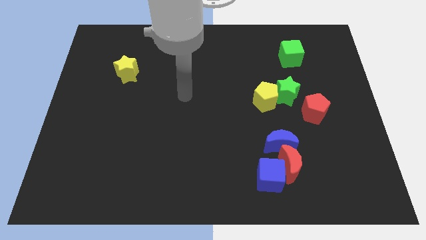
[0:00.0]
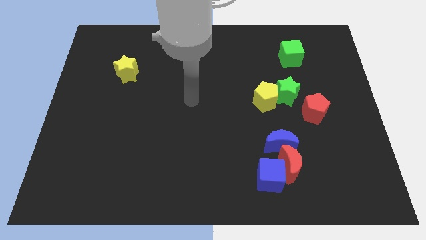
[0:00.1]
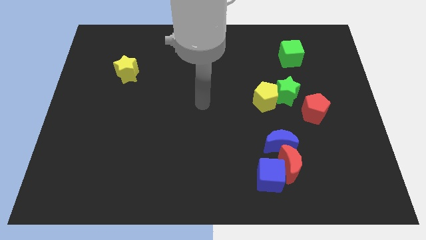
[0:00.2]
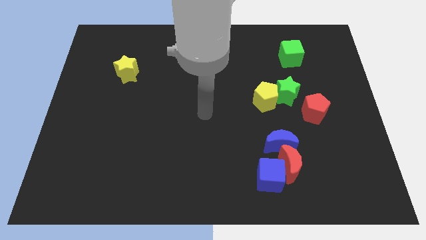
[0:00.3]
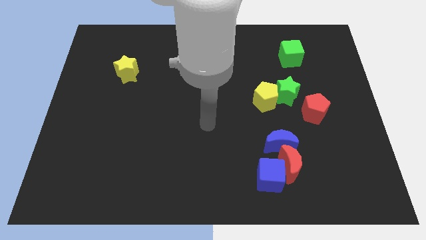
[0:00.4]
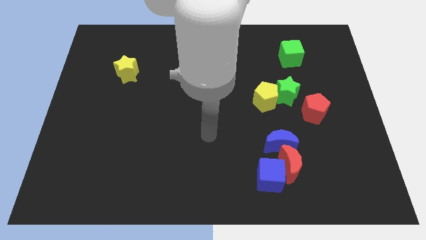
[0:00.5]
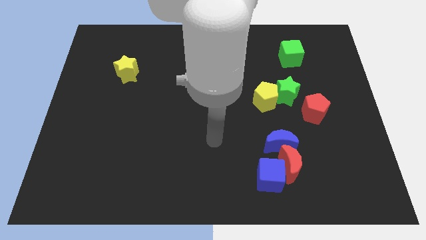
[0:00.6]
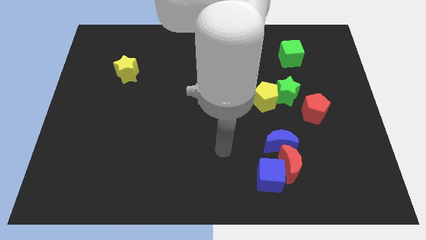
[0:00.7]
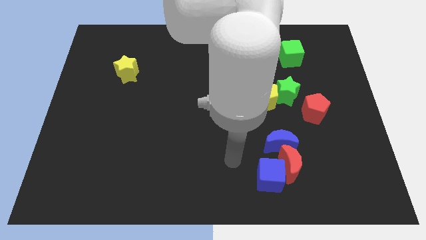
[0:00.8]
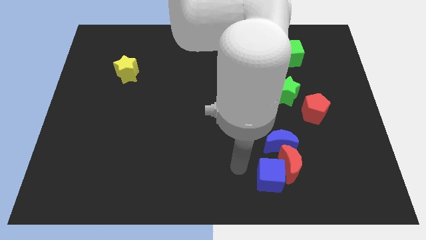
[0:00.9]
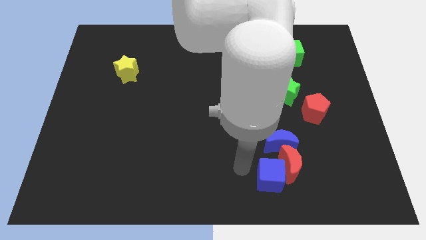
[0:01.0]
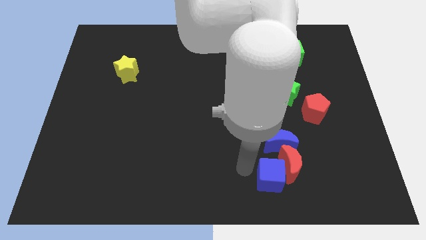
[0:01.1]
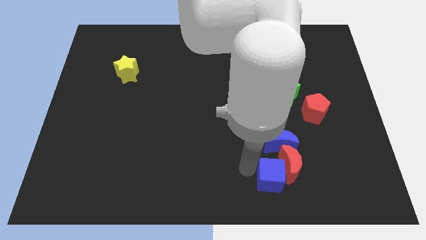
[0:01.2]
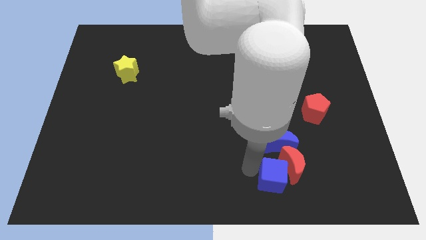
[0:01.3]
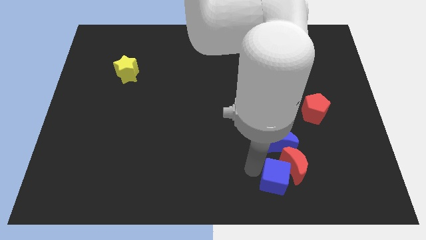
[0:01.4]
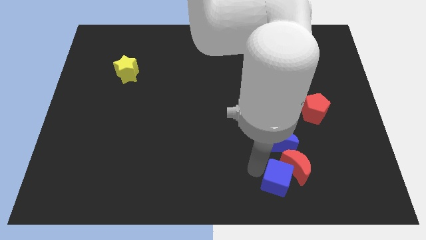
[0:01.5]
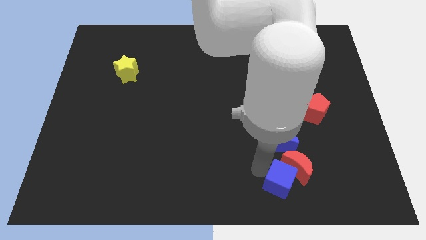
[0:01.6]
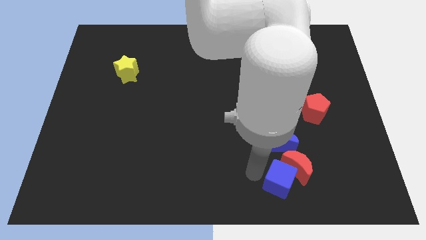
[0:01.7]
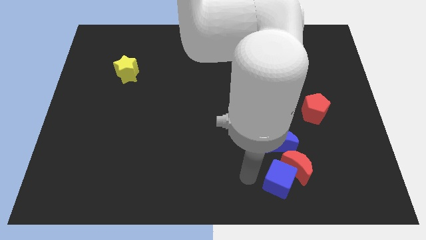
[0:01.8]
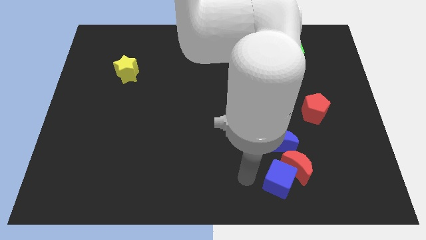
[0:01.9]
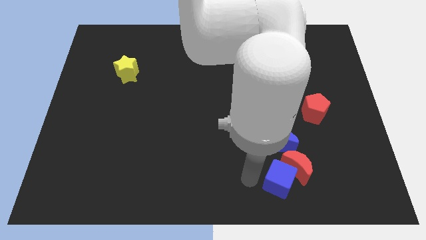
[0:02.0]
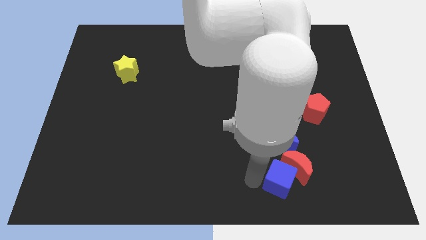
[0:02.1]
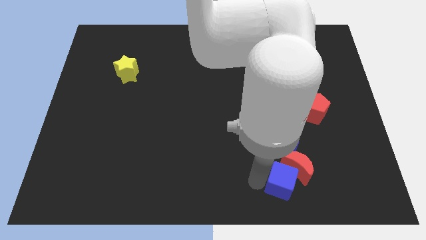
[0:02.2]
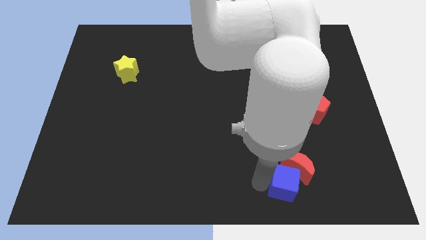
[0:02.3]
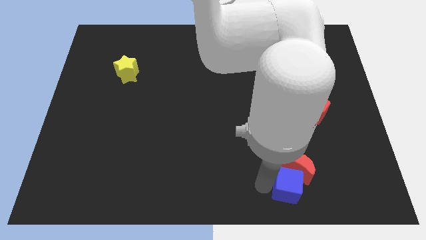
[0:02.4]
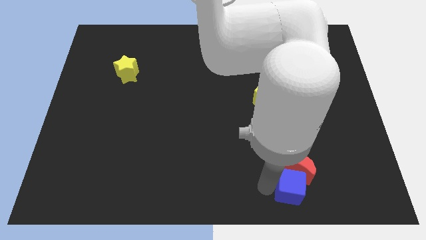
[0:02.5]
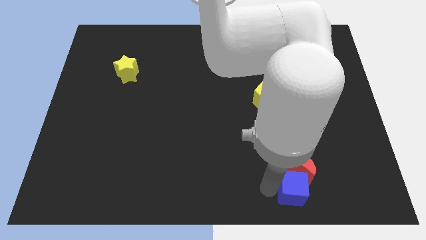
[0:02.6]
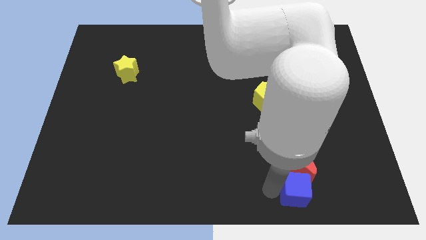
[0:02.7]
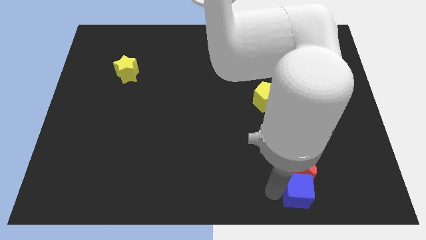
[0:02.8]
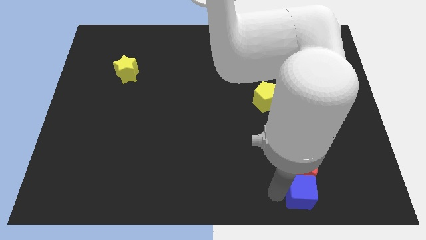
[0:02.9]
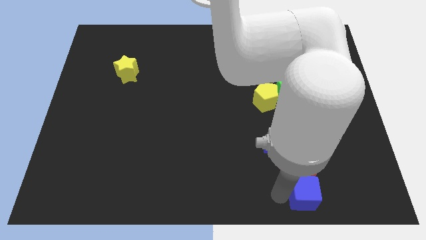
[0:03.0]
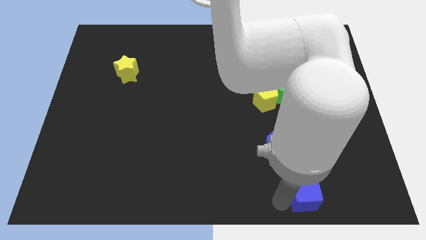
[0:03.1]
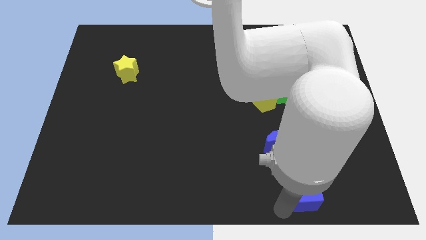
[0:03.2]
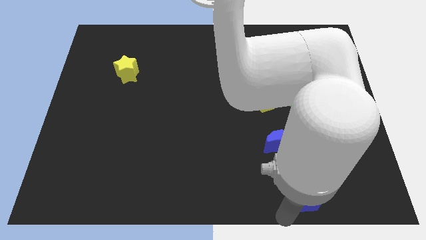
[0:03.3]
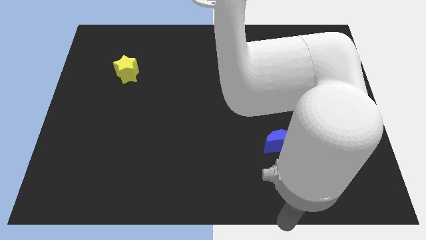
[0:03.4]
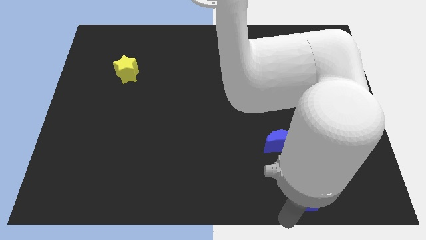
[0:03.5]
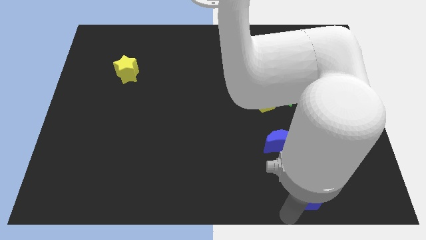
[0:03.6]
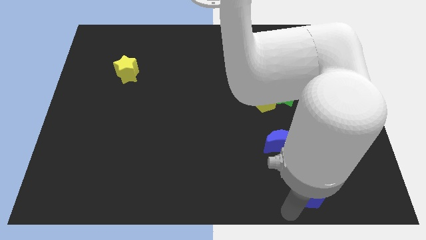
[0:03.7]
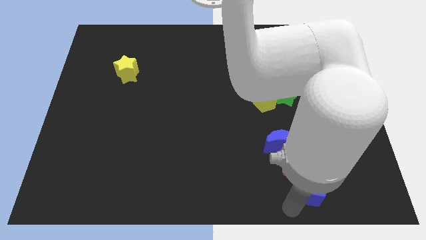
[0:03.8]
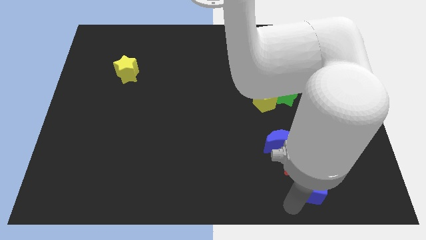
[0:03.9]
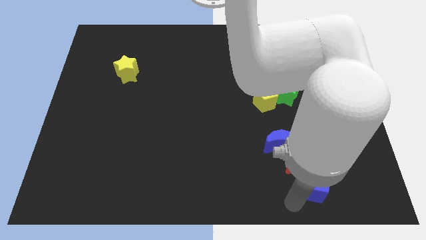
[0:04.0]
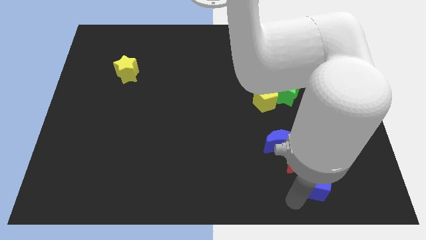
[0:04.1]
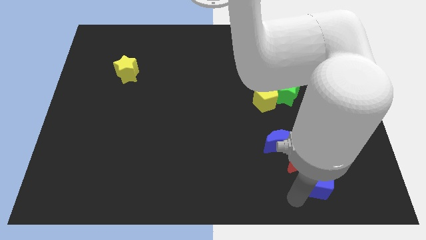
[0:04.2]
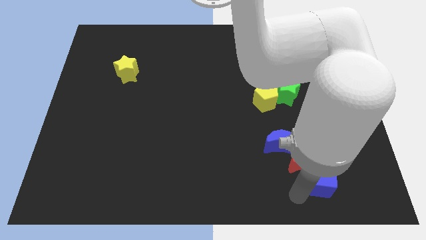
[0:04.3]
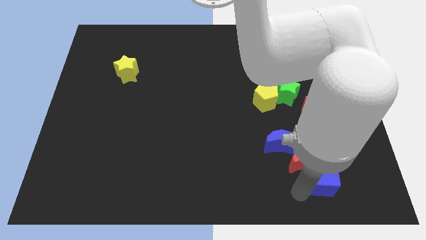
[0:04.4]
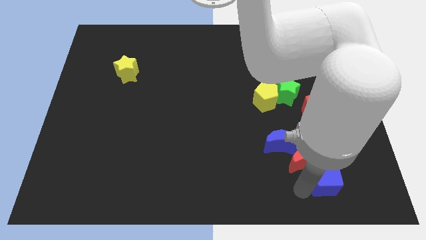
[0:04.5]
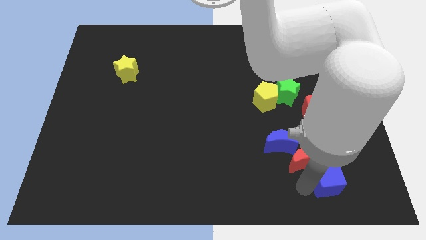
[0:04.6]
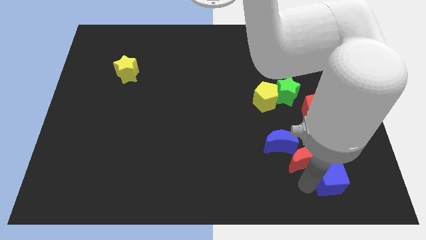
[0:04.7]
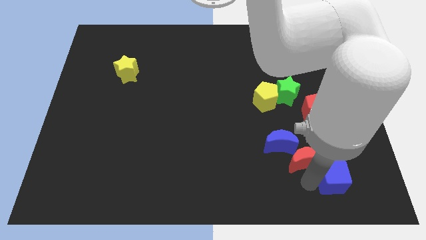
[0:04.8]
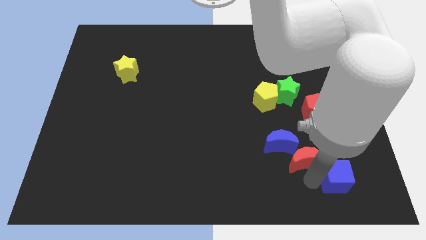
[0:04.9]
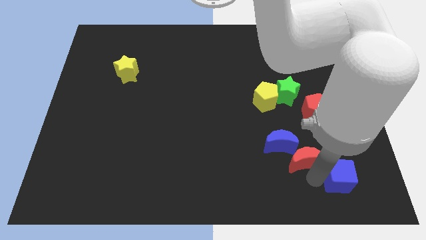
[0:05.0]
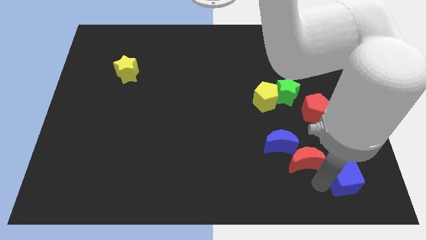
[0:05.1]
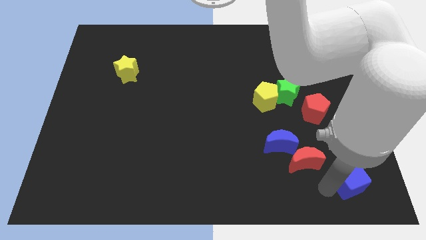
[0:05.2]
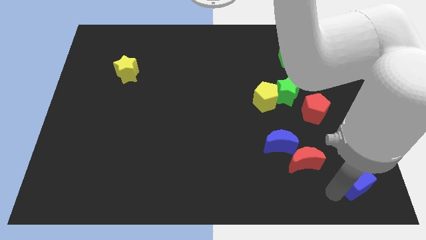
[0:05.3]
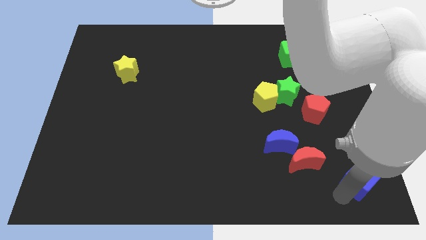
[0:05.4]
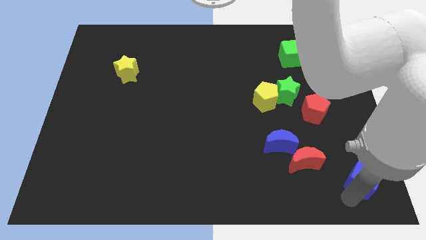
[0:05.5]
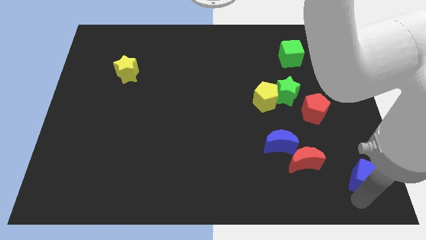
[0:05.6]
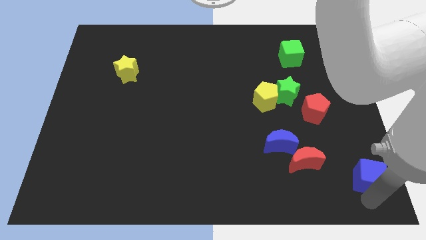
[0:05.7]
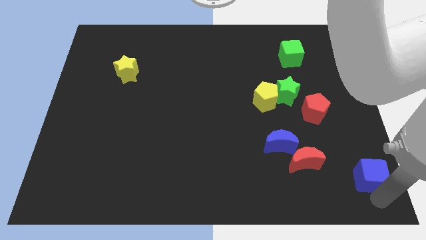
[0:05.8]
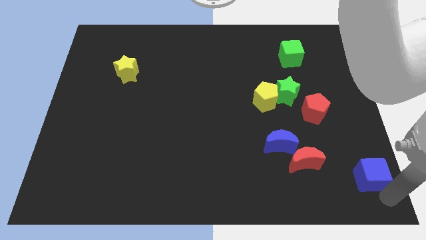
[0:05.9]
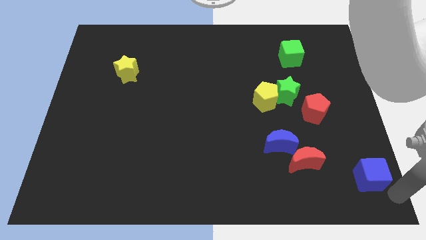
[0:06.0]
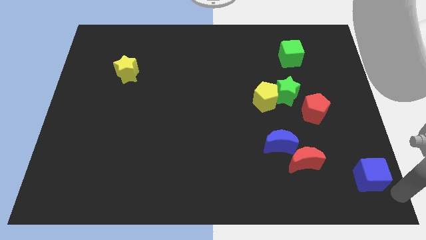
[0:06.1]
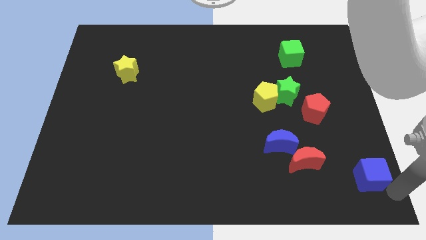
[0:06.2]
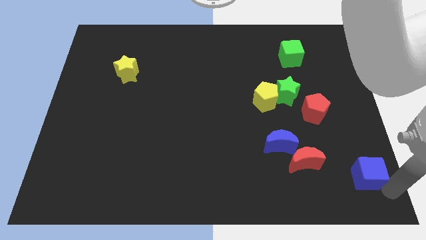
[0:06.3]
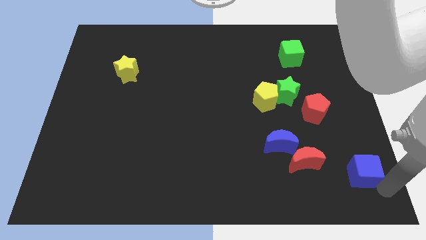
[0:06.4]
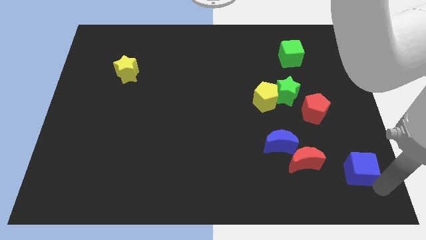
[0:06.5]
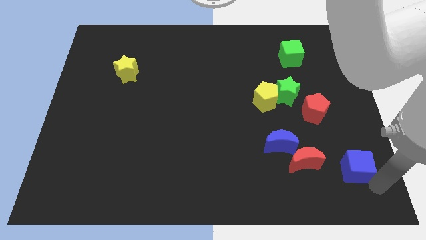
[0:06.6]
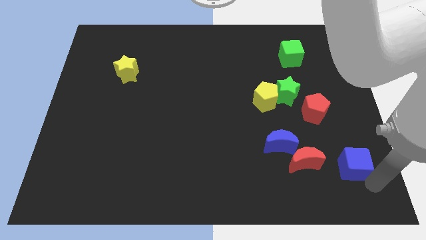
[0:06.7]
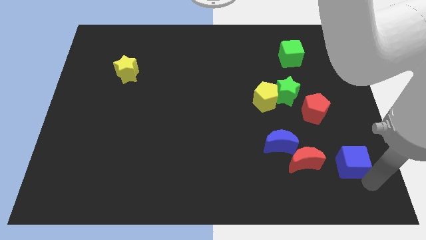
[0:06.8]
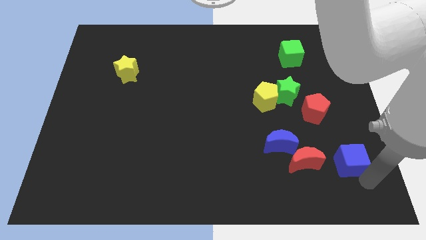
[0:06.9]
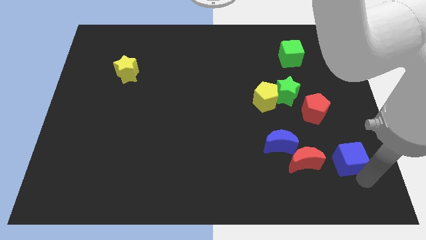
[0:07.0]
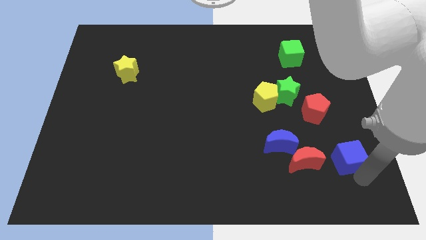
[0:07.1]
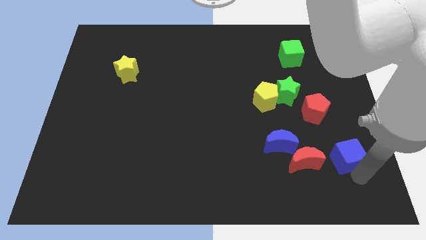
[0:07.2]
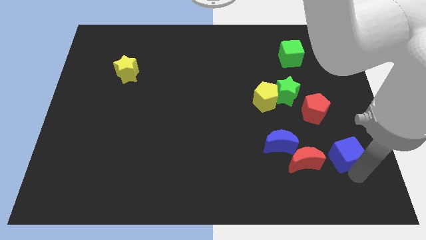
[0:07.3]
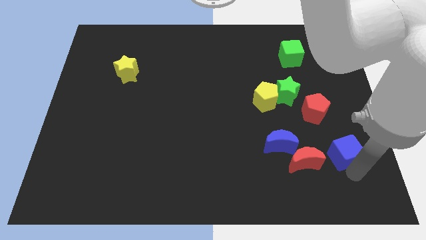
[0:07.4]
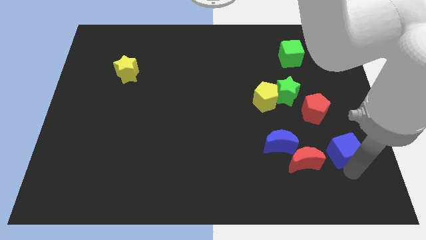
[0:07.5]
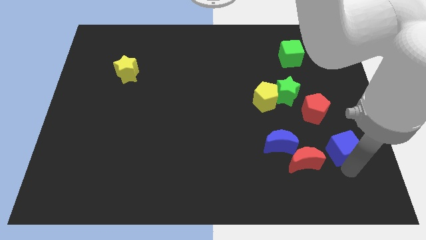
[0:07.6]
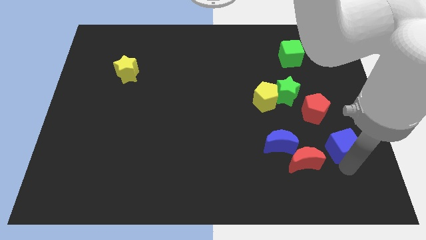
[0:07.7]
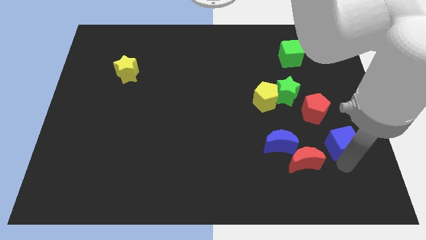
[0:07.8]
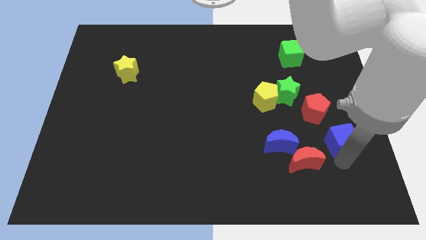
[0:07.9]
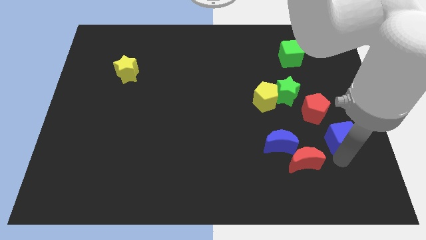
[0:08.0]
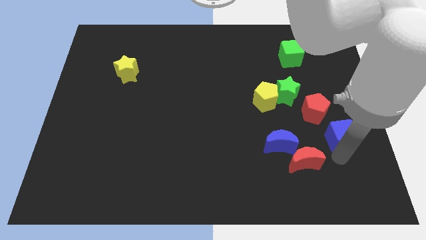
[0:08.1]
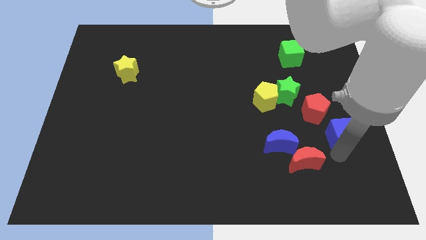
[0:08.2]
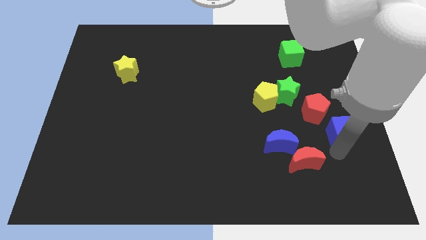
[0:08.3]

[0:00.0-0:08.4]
put the blue cube to the right side of the board
